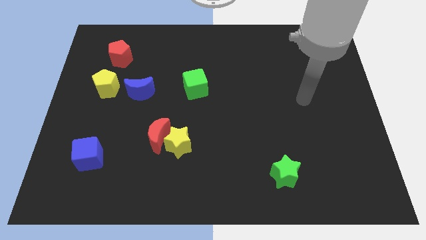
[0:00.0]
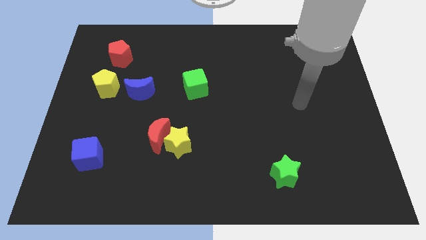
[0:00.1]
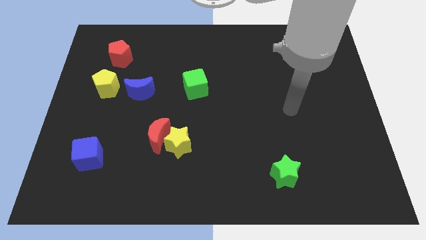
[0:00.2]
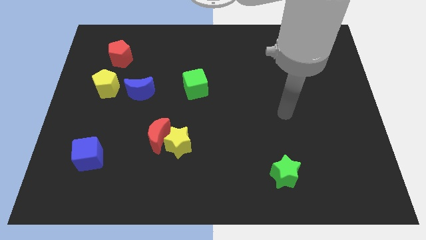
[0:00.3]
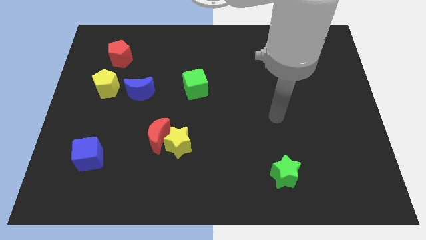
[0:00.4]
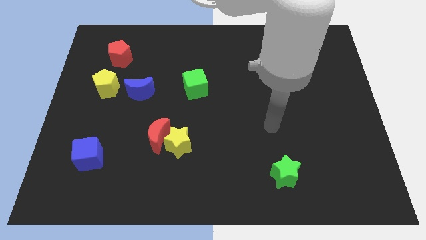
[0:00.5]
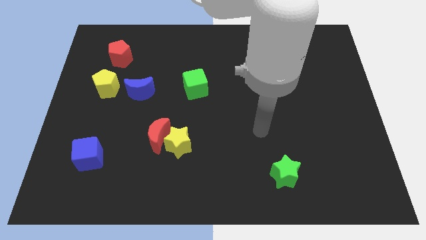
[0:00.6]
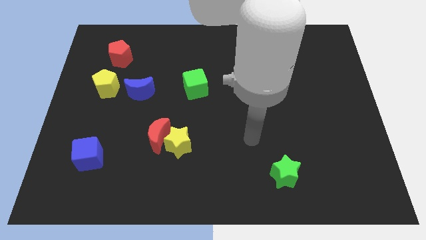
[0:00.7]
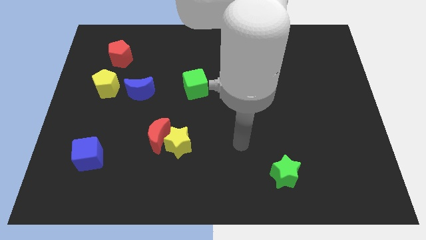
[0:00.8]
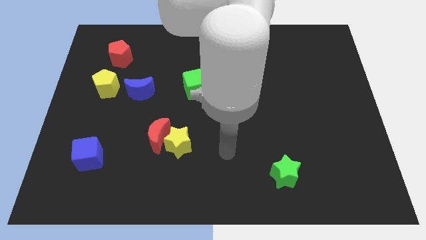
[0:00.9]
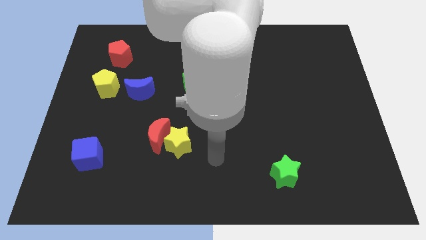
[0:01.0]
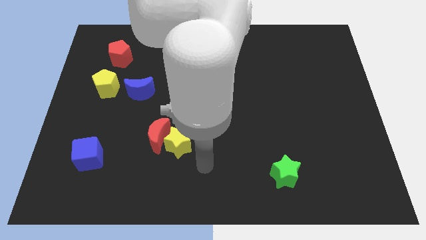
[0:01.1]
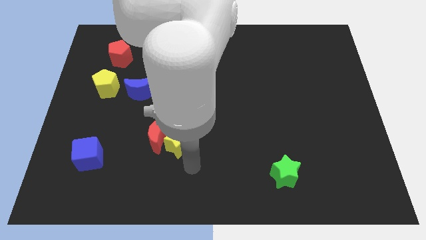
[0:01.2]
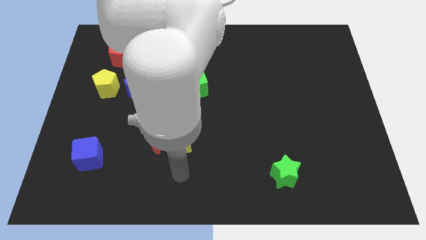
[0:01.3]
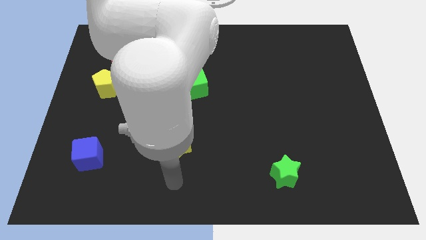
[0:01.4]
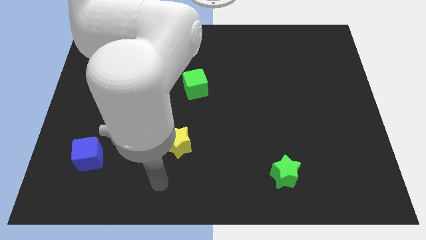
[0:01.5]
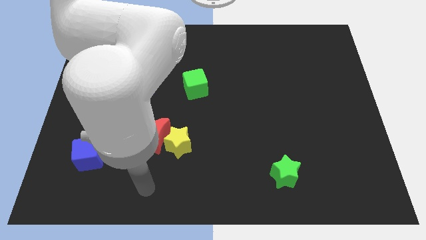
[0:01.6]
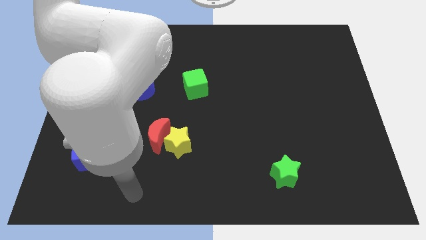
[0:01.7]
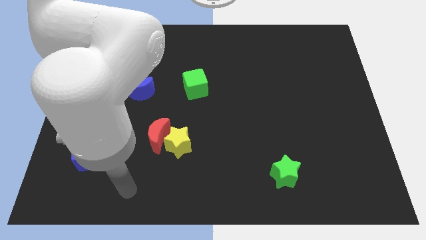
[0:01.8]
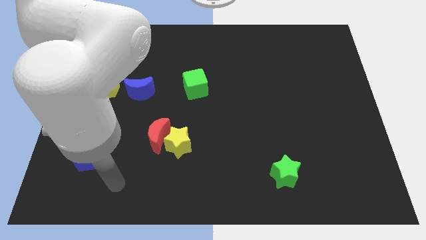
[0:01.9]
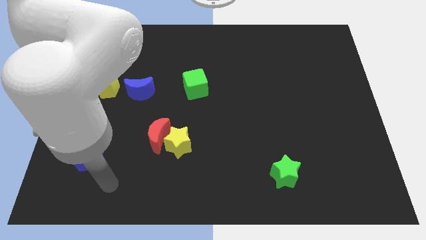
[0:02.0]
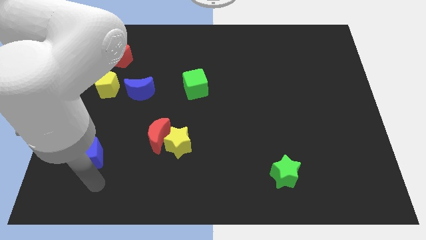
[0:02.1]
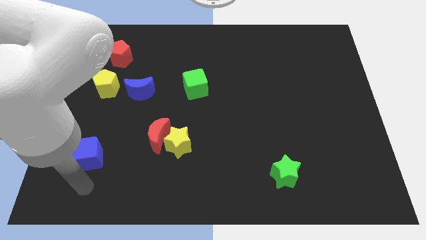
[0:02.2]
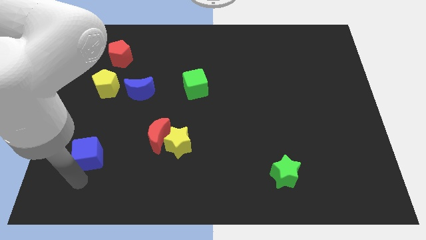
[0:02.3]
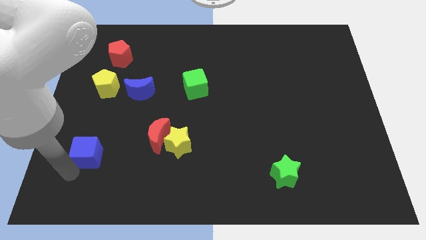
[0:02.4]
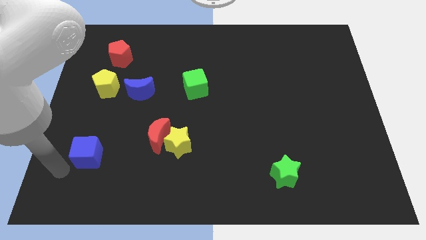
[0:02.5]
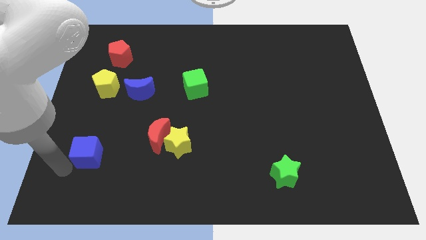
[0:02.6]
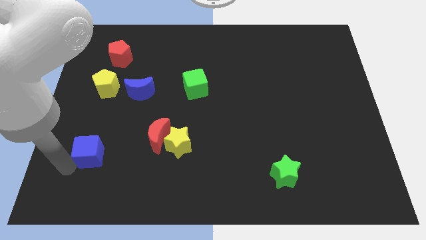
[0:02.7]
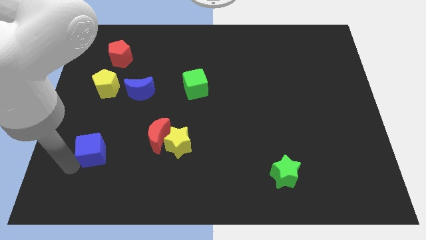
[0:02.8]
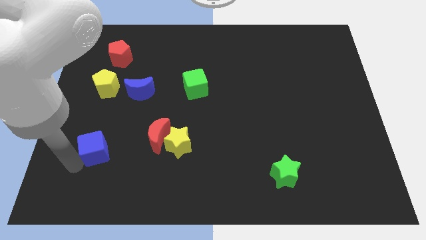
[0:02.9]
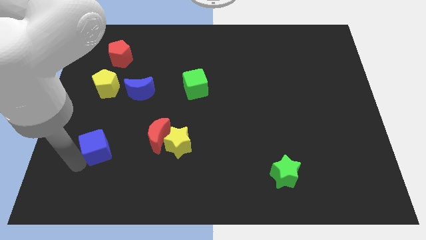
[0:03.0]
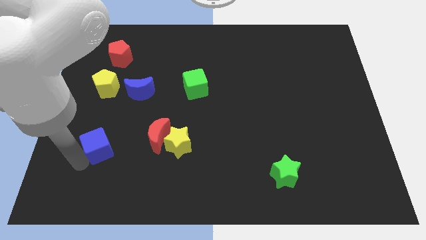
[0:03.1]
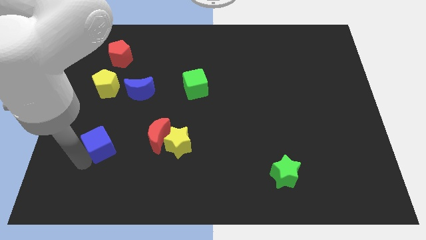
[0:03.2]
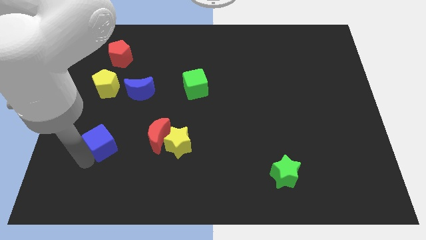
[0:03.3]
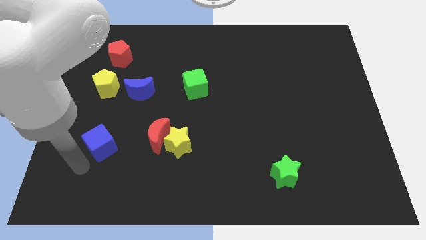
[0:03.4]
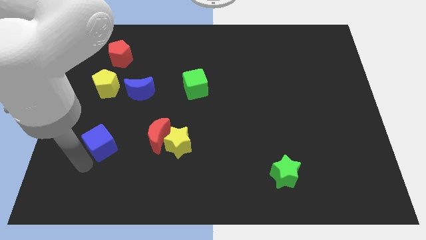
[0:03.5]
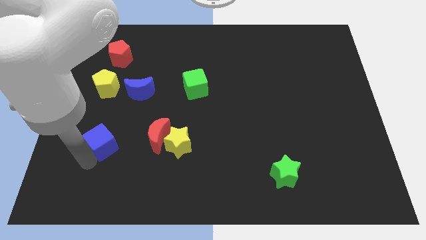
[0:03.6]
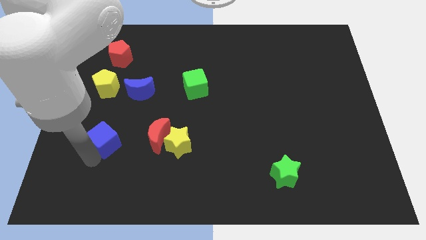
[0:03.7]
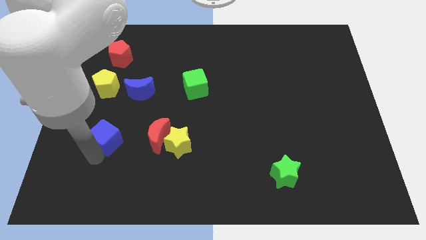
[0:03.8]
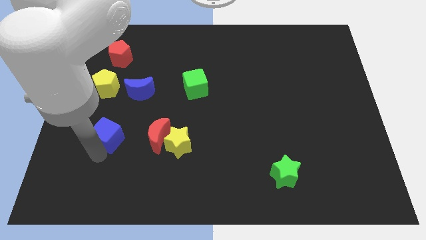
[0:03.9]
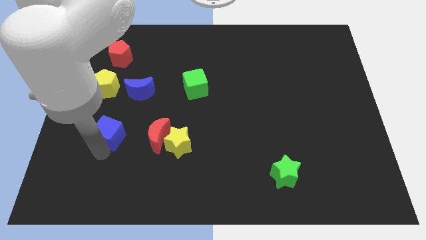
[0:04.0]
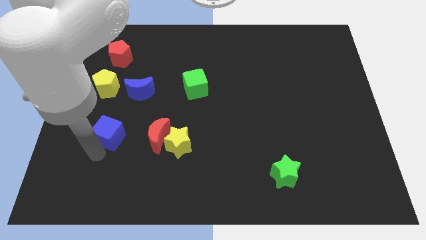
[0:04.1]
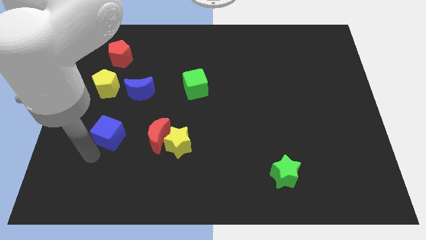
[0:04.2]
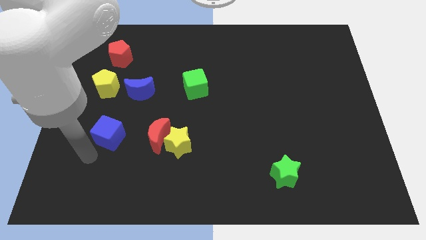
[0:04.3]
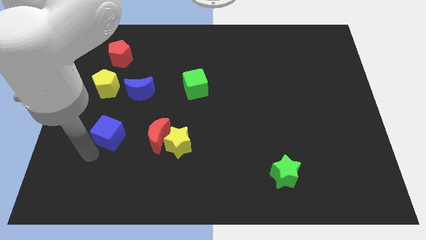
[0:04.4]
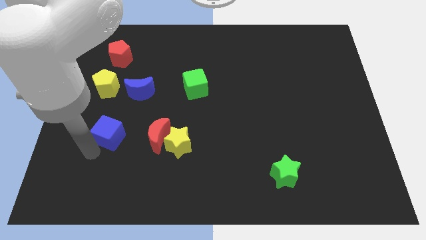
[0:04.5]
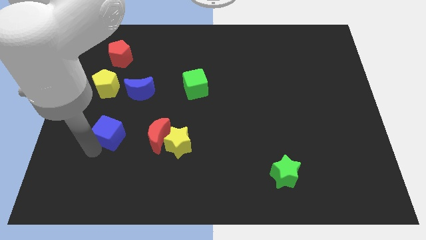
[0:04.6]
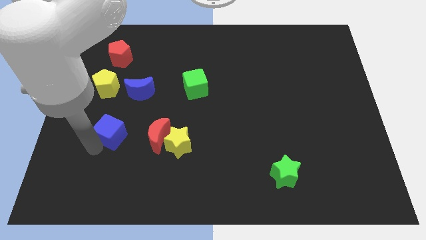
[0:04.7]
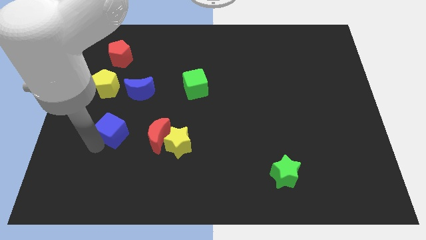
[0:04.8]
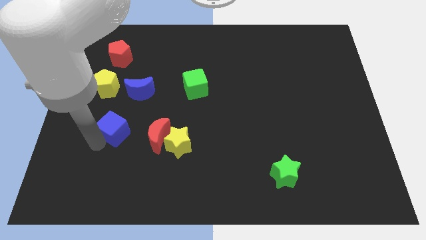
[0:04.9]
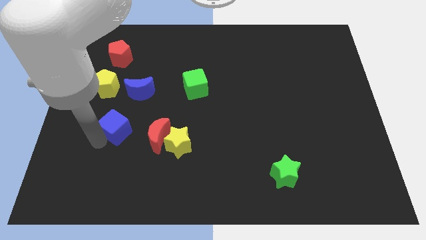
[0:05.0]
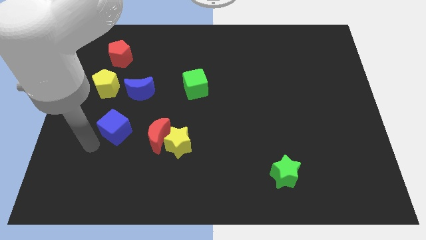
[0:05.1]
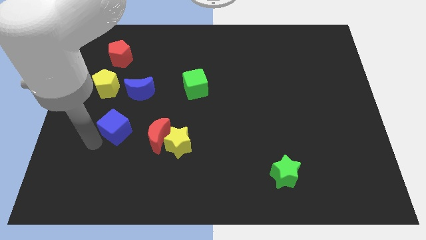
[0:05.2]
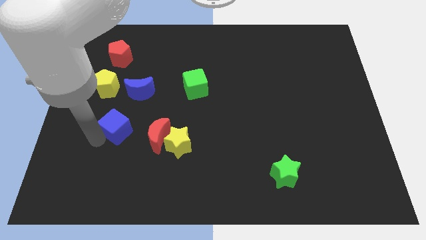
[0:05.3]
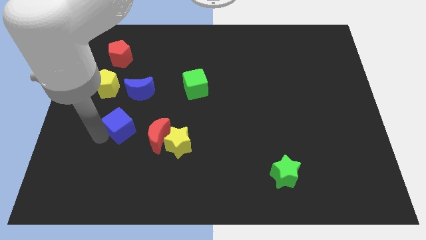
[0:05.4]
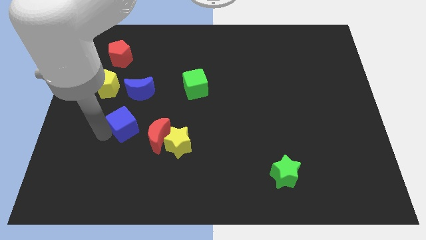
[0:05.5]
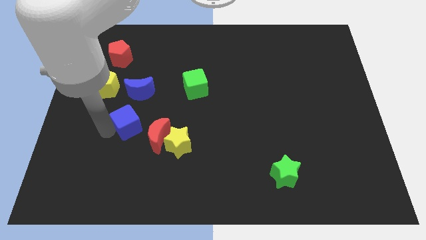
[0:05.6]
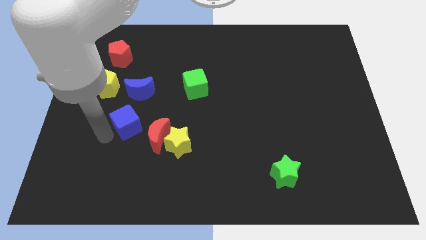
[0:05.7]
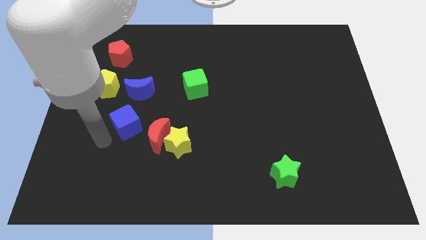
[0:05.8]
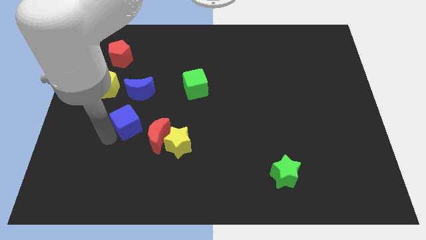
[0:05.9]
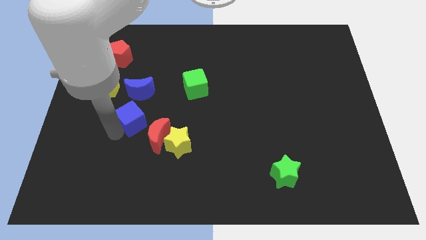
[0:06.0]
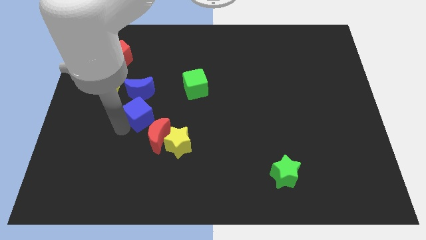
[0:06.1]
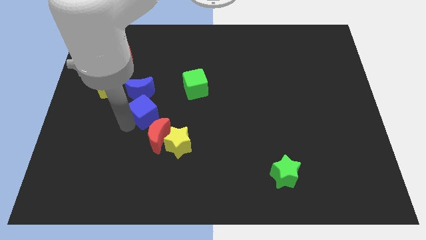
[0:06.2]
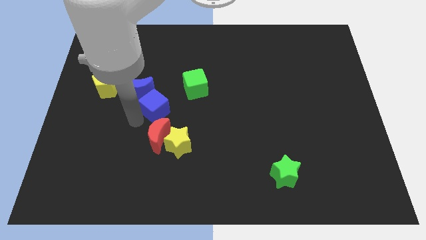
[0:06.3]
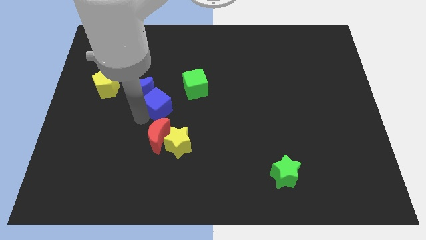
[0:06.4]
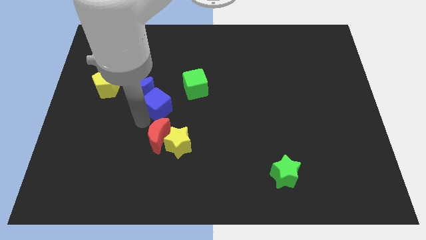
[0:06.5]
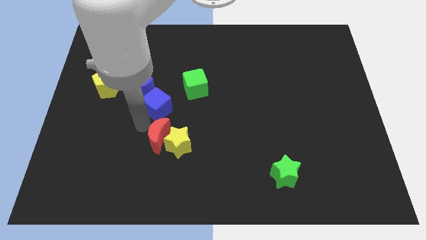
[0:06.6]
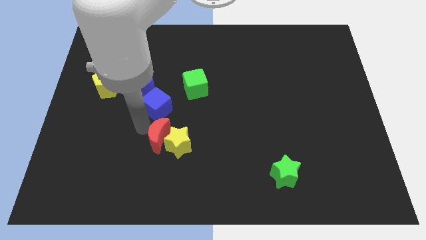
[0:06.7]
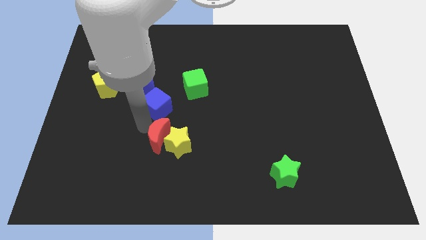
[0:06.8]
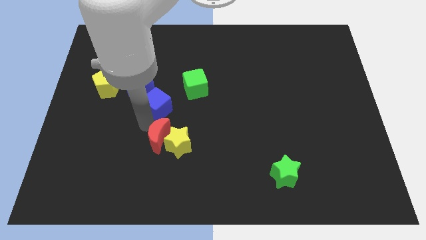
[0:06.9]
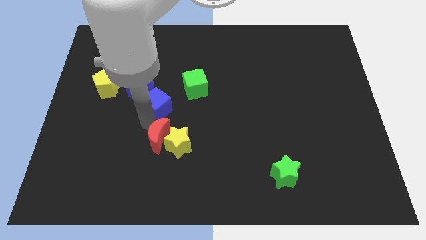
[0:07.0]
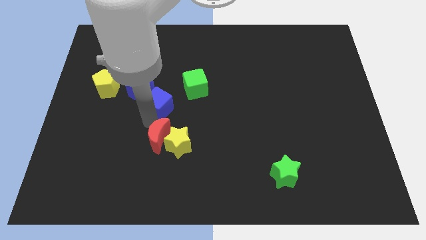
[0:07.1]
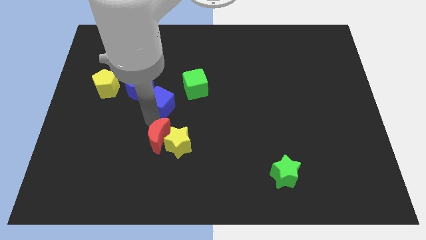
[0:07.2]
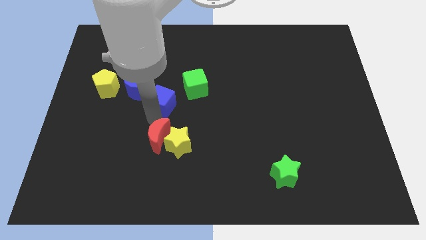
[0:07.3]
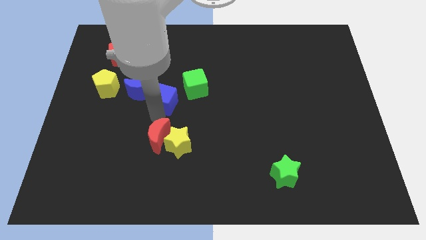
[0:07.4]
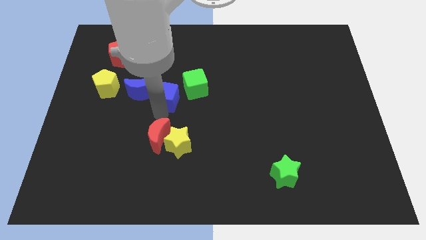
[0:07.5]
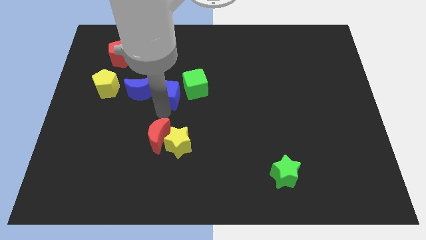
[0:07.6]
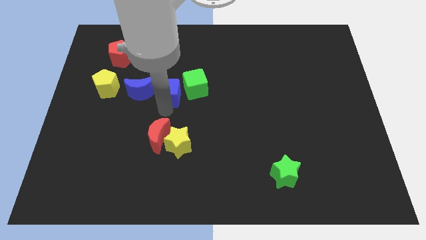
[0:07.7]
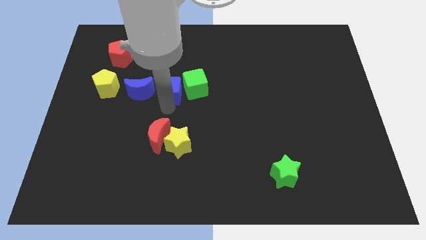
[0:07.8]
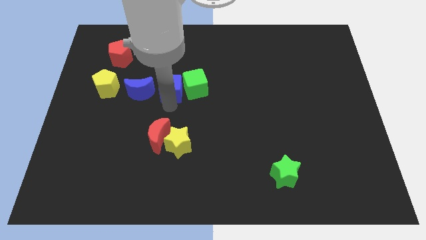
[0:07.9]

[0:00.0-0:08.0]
put the blue cube to the top right side of the blue moon
